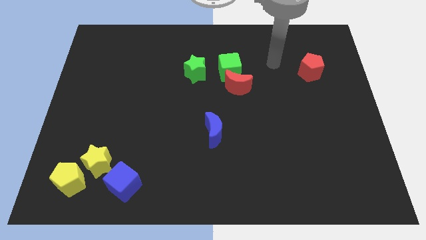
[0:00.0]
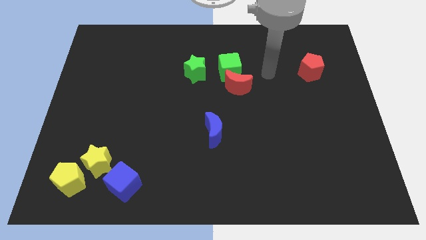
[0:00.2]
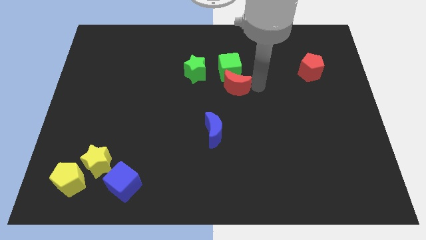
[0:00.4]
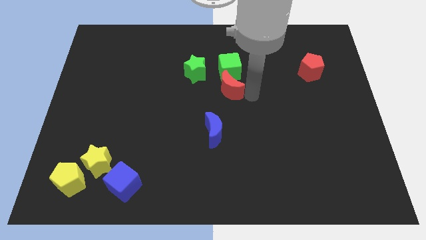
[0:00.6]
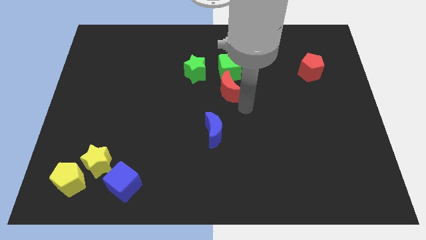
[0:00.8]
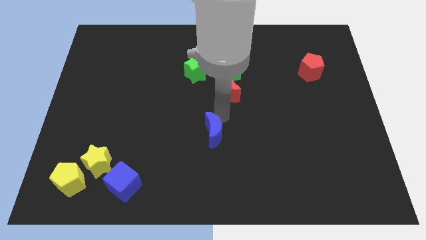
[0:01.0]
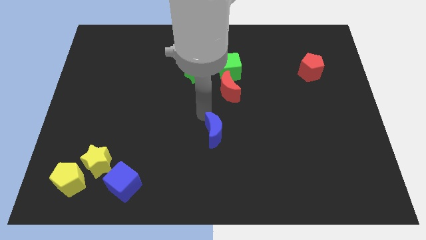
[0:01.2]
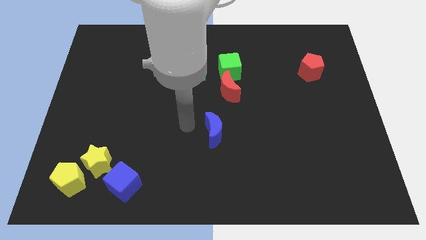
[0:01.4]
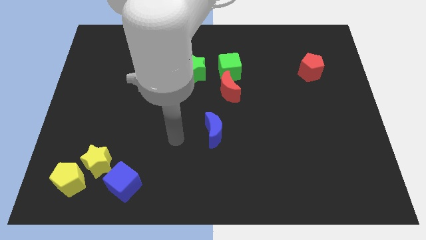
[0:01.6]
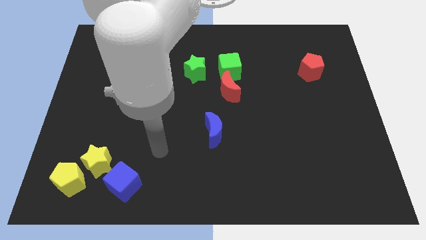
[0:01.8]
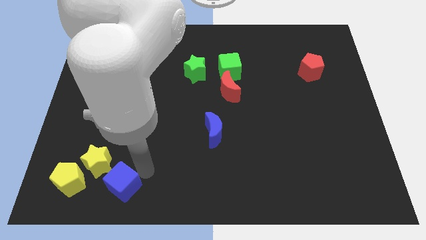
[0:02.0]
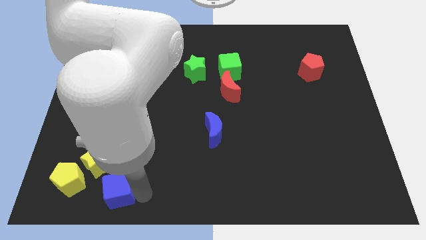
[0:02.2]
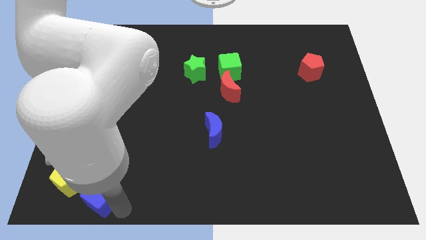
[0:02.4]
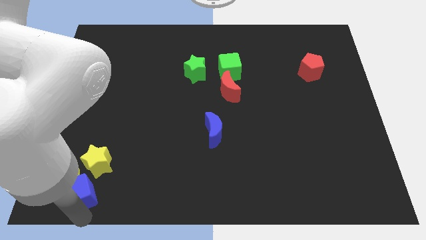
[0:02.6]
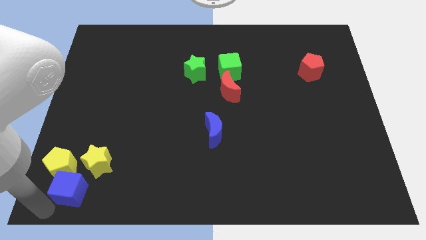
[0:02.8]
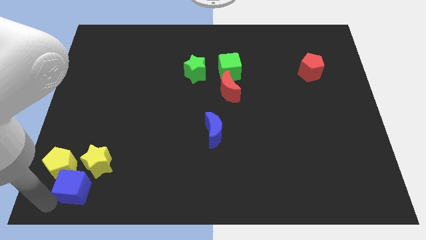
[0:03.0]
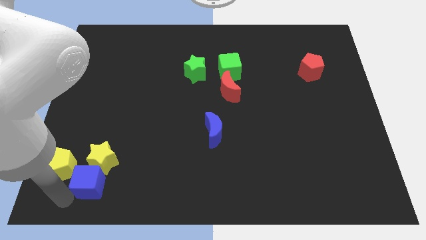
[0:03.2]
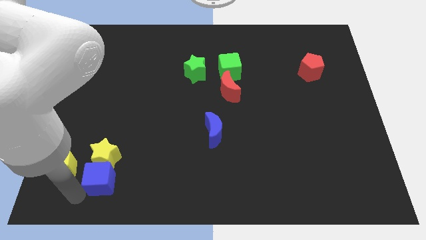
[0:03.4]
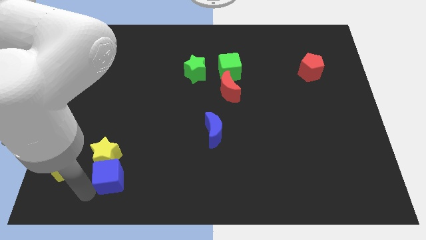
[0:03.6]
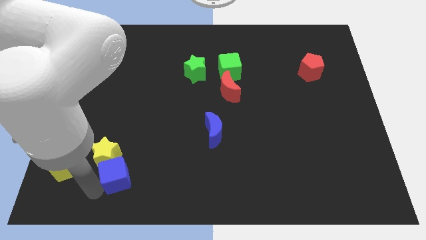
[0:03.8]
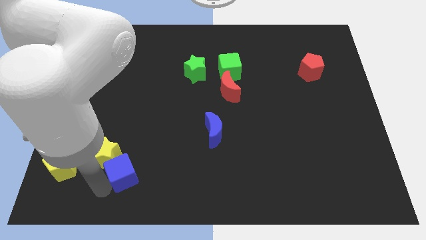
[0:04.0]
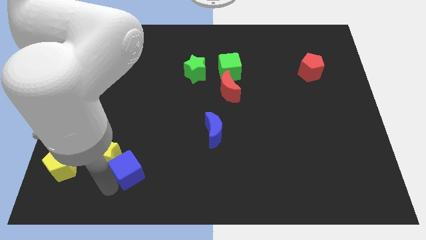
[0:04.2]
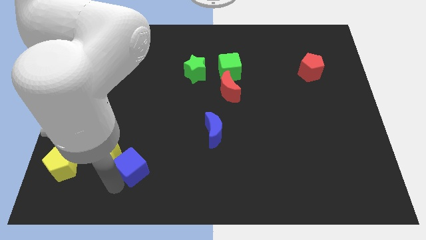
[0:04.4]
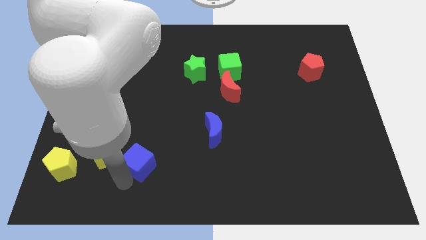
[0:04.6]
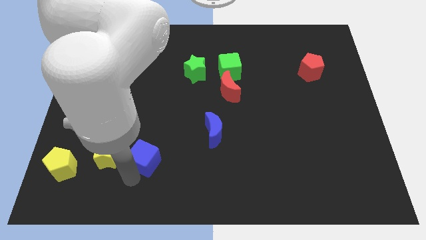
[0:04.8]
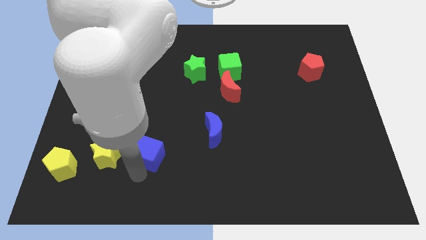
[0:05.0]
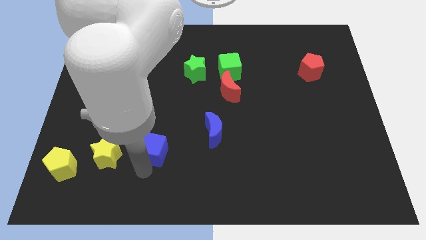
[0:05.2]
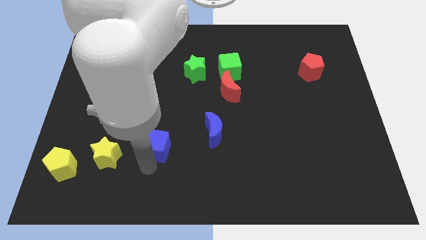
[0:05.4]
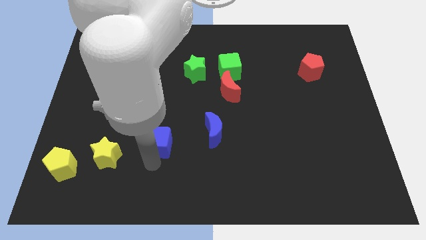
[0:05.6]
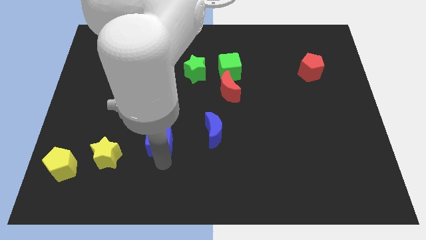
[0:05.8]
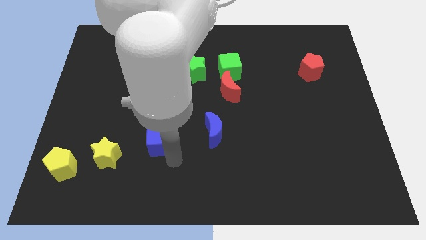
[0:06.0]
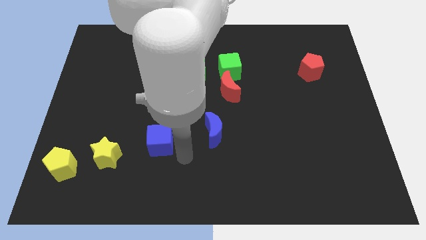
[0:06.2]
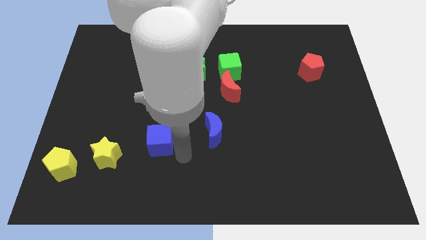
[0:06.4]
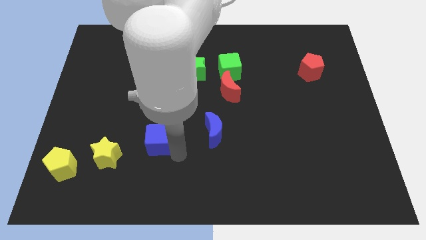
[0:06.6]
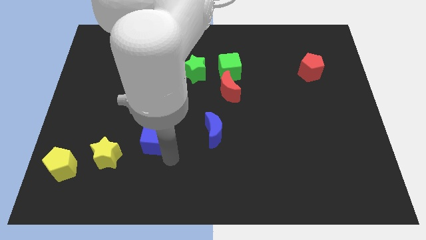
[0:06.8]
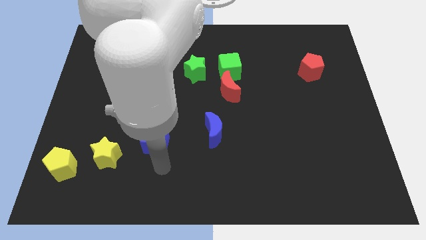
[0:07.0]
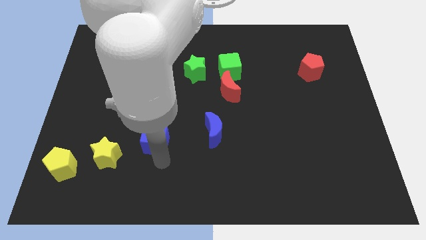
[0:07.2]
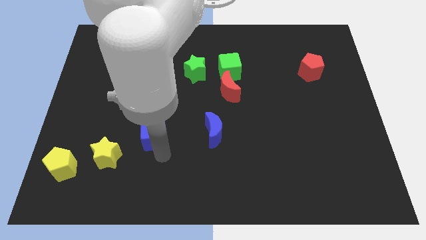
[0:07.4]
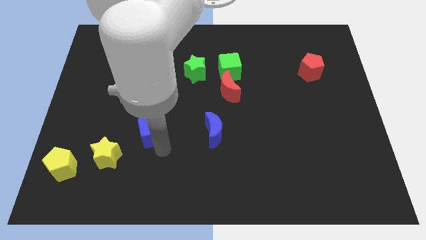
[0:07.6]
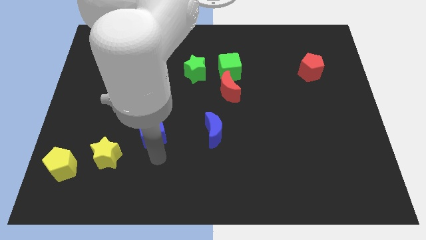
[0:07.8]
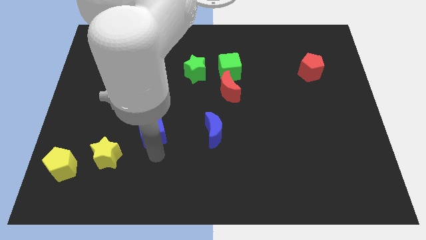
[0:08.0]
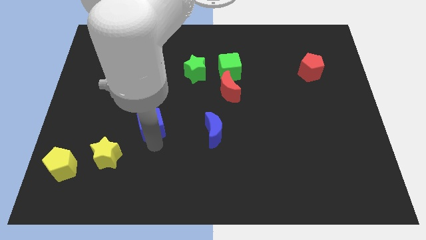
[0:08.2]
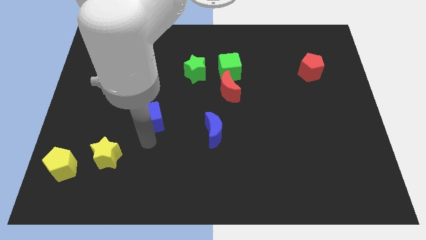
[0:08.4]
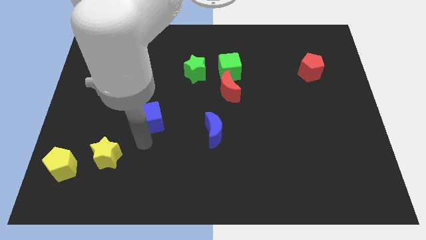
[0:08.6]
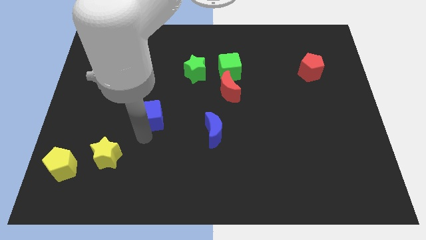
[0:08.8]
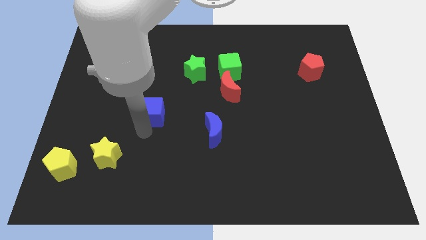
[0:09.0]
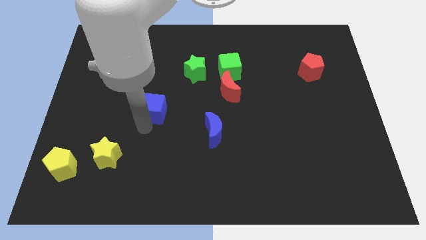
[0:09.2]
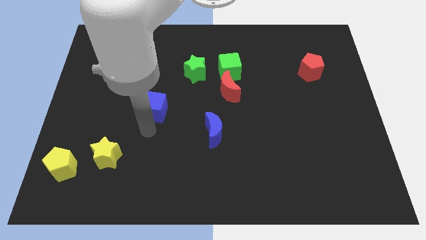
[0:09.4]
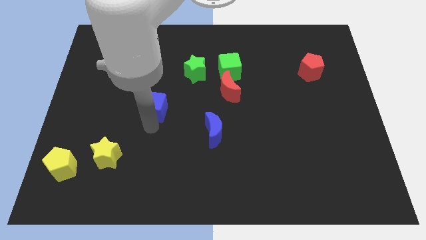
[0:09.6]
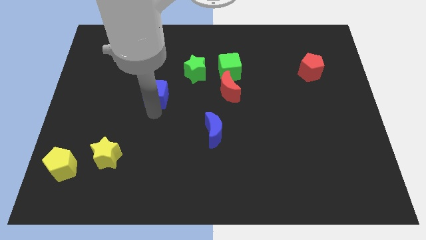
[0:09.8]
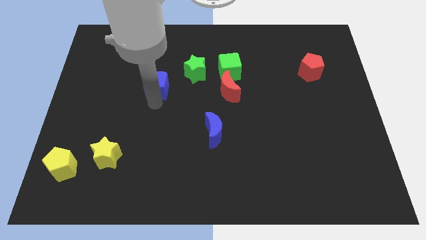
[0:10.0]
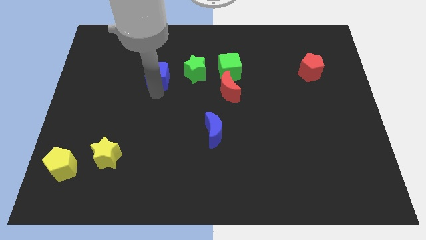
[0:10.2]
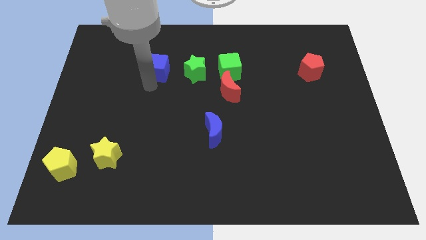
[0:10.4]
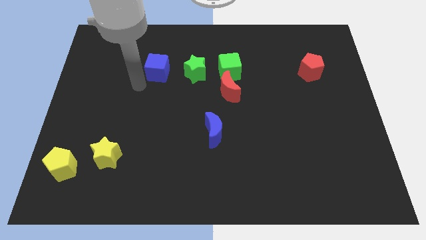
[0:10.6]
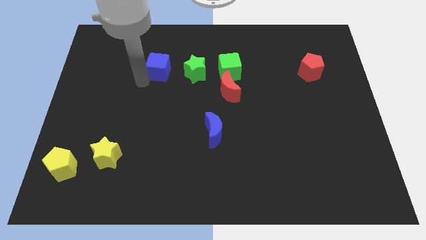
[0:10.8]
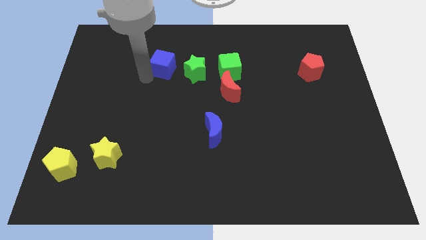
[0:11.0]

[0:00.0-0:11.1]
slide the blue cube diagonally up and to the left of the green star

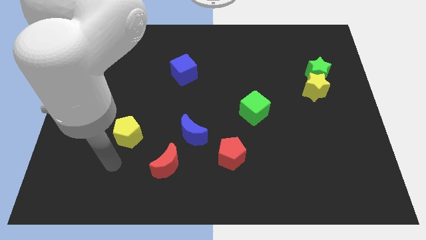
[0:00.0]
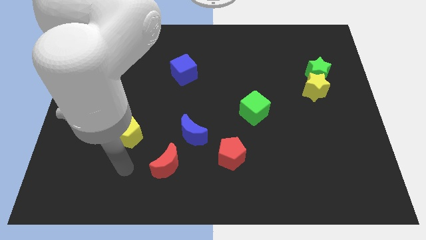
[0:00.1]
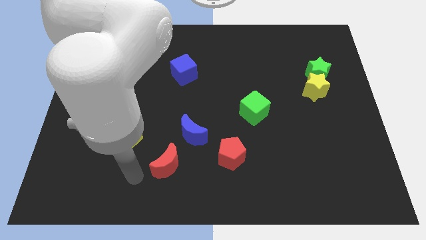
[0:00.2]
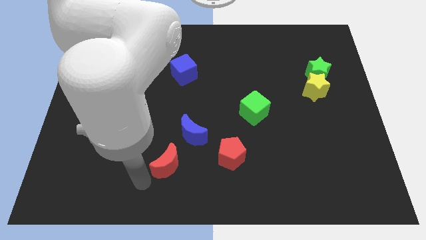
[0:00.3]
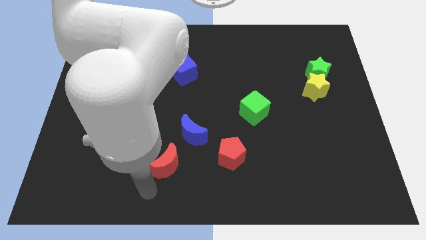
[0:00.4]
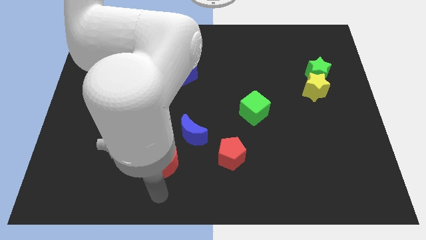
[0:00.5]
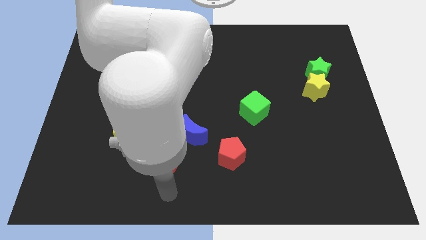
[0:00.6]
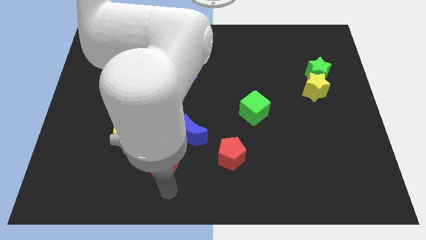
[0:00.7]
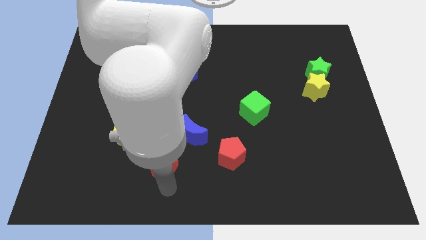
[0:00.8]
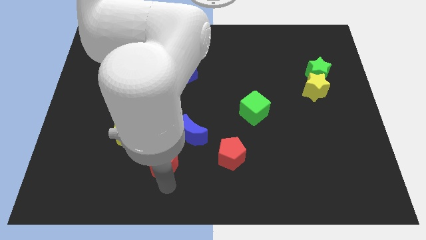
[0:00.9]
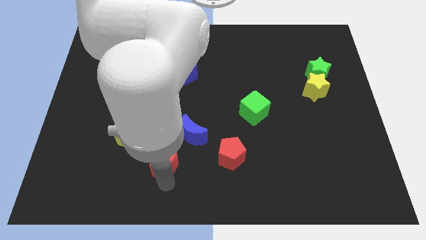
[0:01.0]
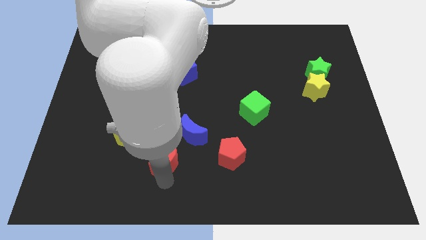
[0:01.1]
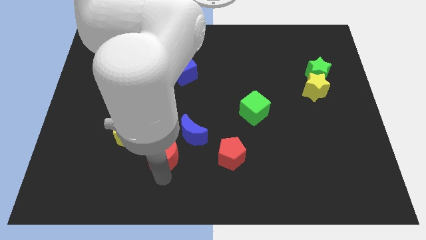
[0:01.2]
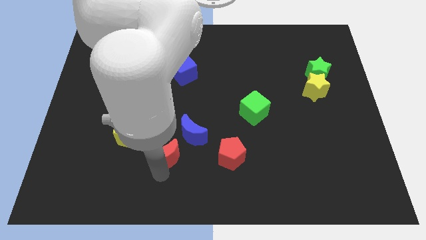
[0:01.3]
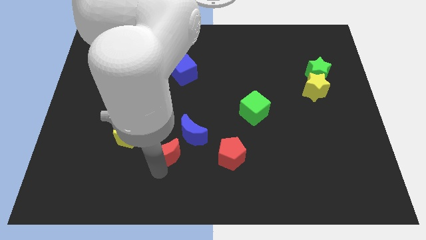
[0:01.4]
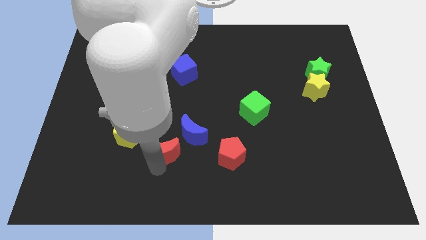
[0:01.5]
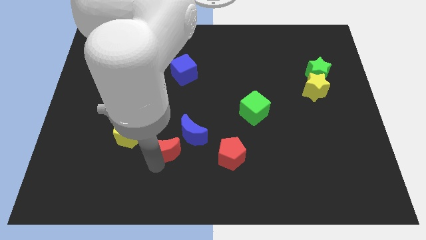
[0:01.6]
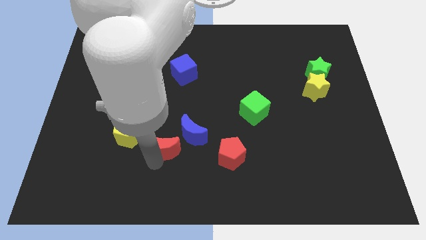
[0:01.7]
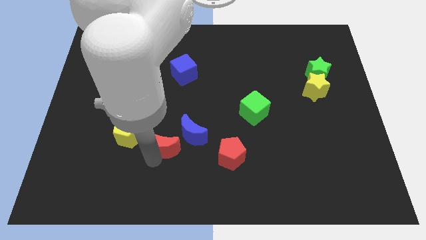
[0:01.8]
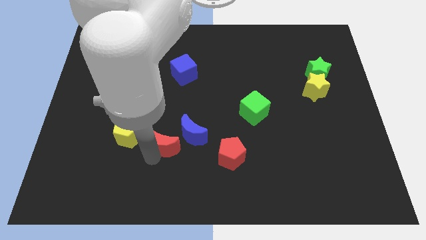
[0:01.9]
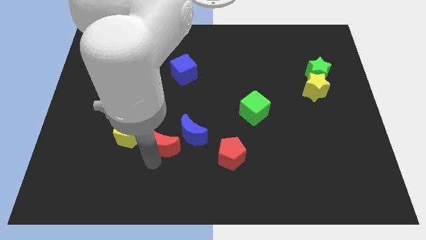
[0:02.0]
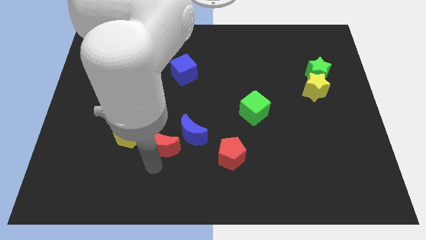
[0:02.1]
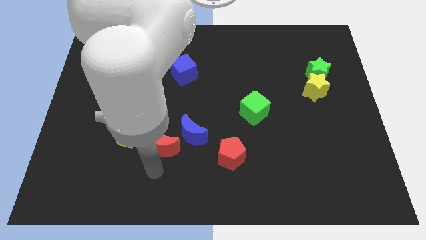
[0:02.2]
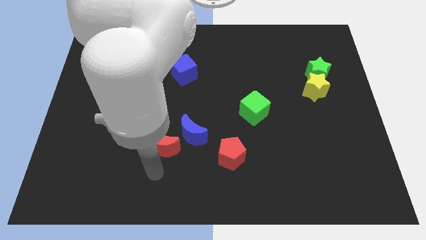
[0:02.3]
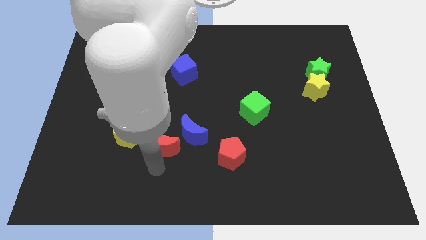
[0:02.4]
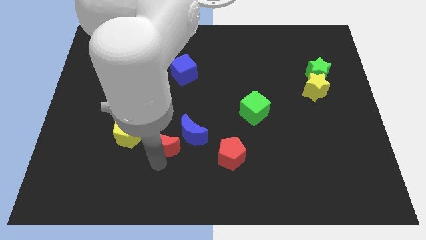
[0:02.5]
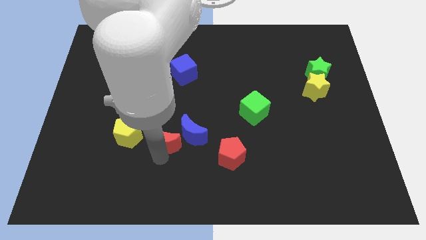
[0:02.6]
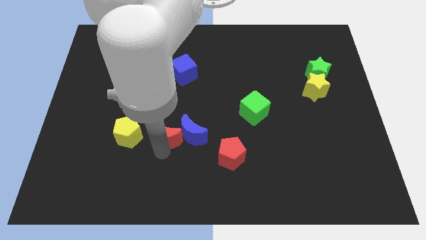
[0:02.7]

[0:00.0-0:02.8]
slide the red moon to the top left side of the blue moon
